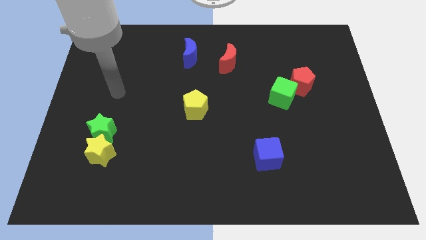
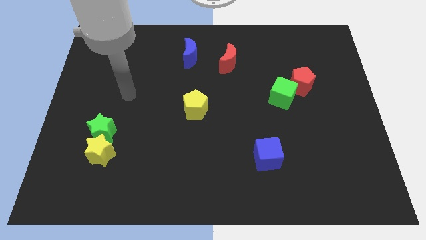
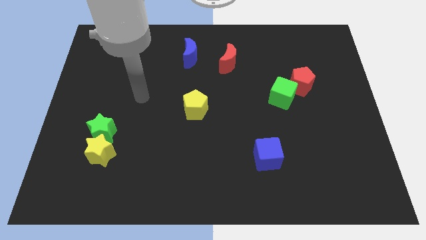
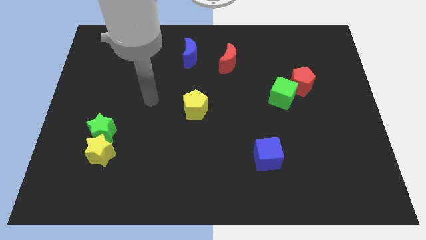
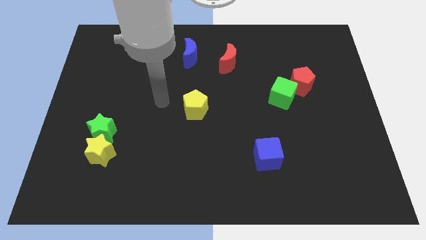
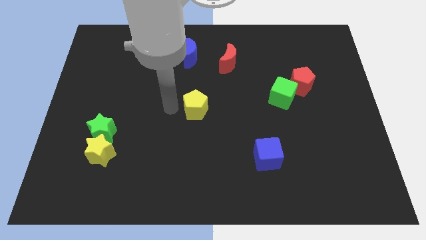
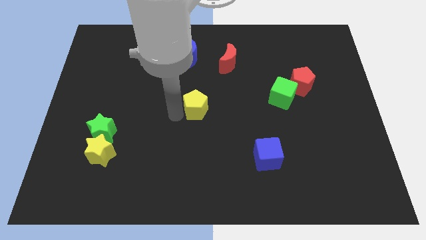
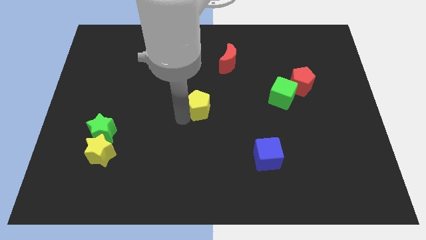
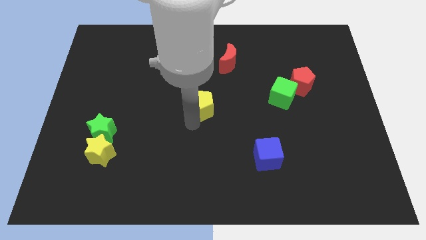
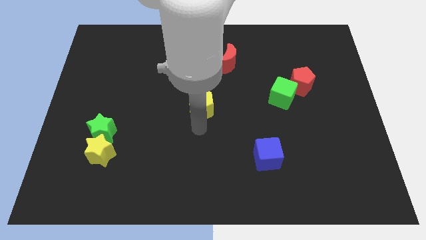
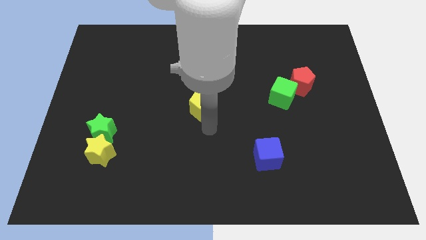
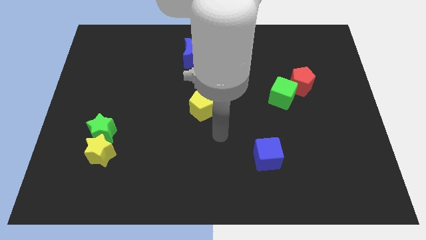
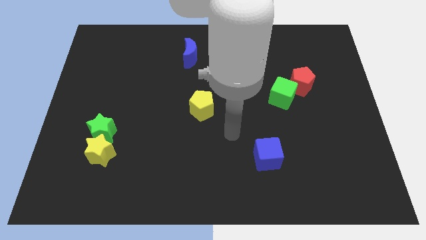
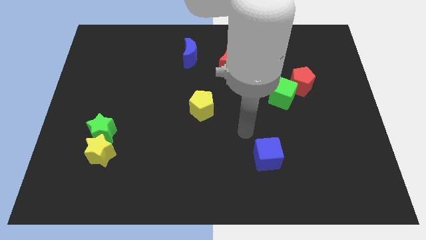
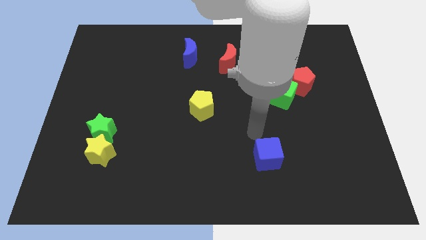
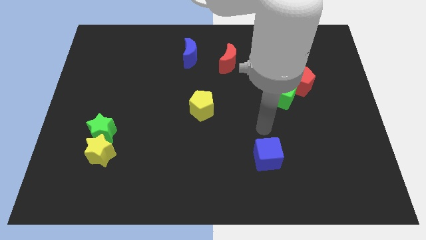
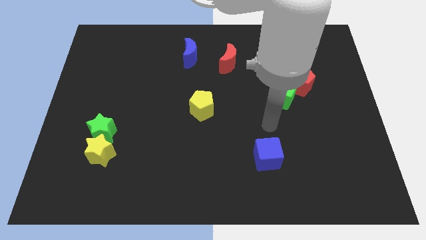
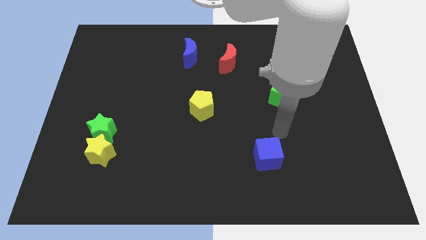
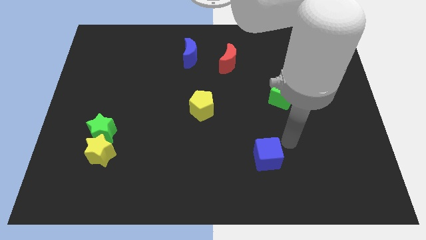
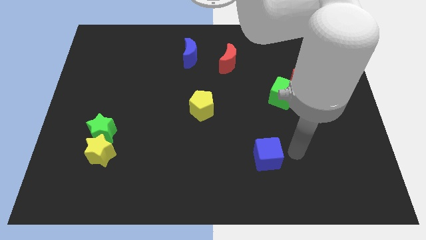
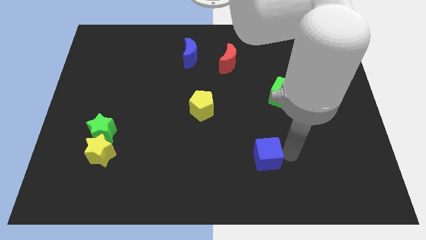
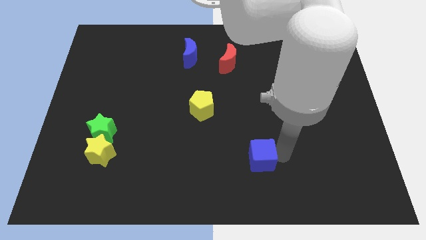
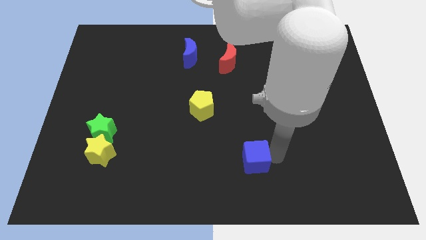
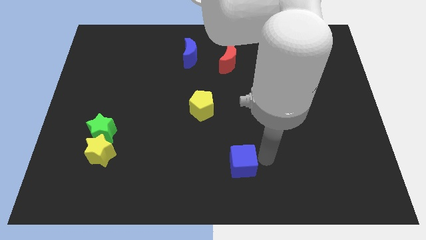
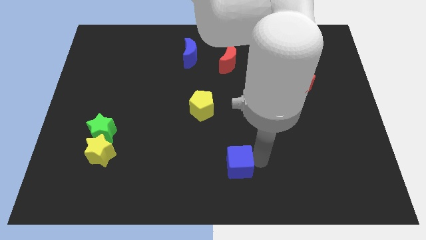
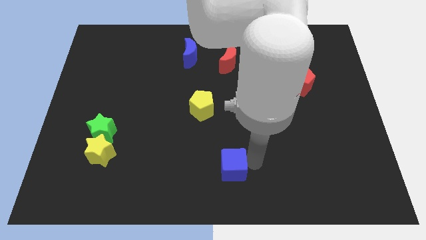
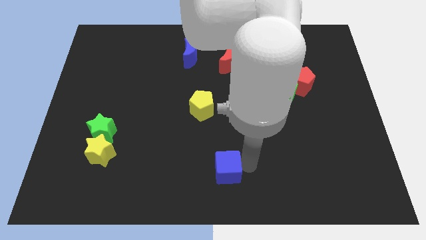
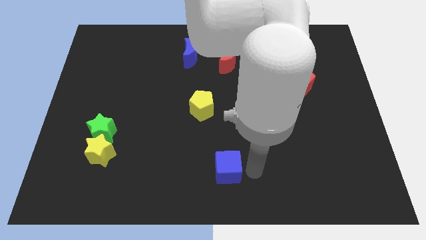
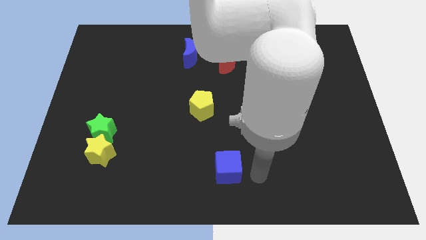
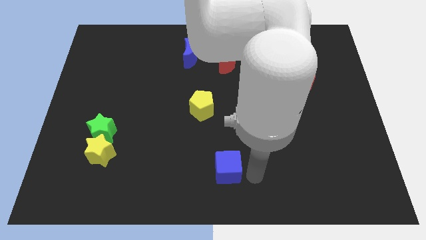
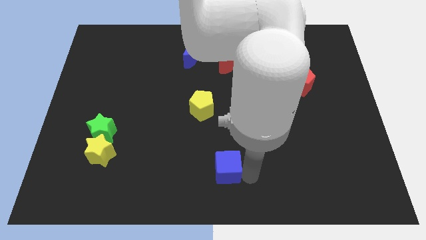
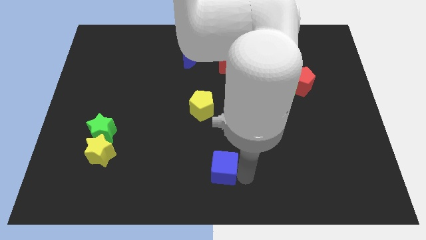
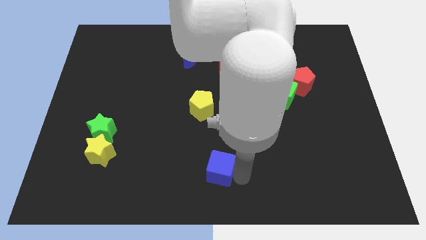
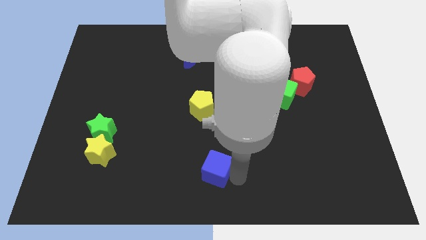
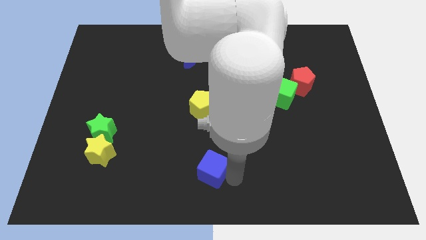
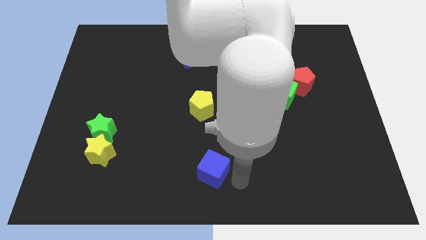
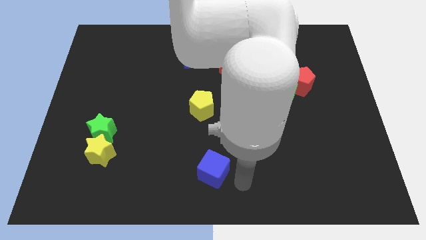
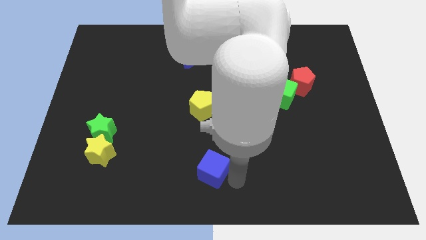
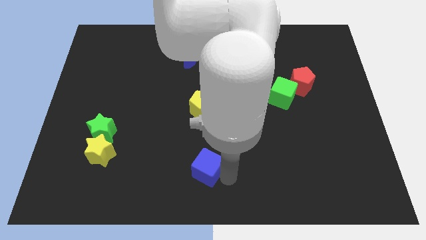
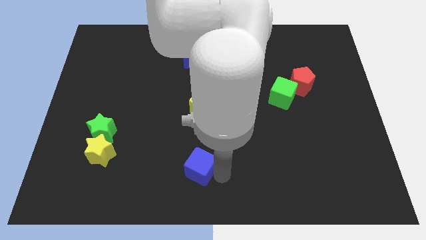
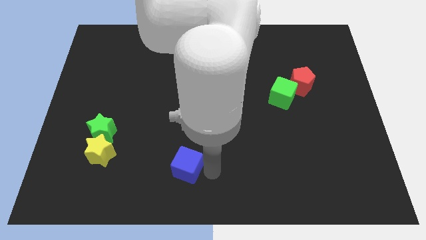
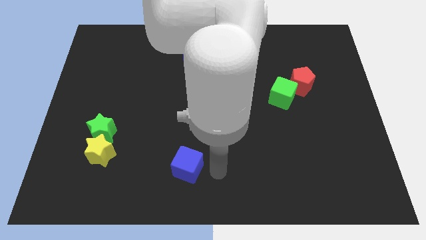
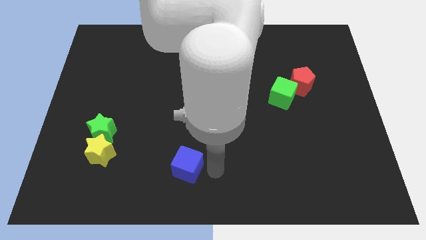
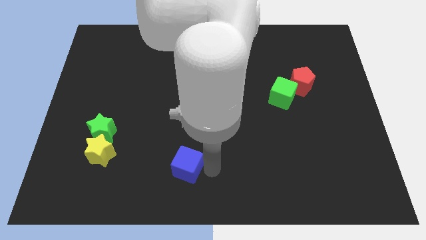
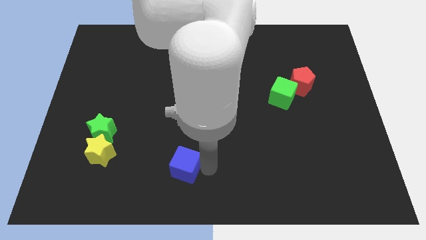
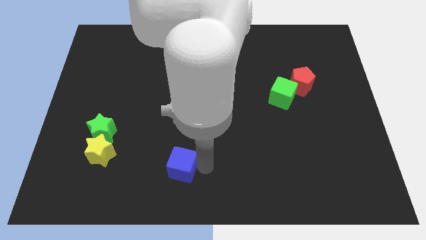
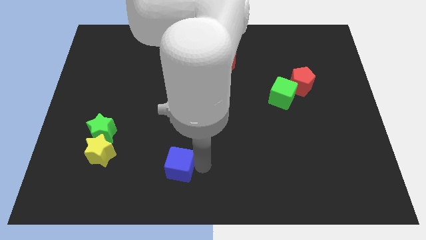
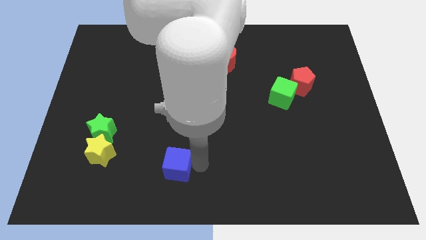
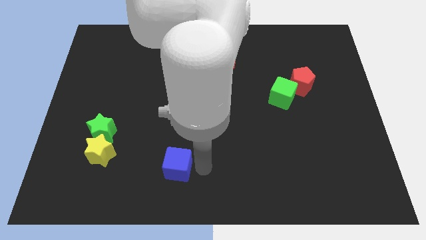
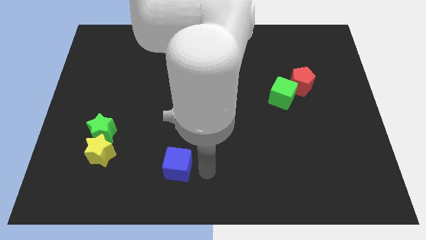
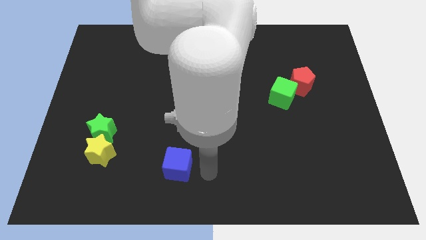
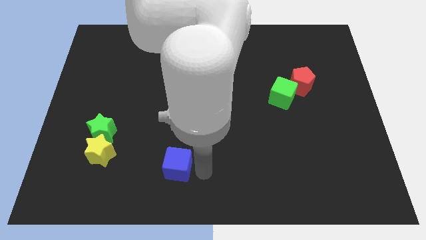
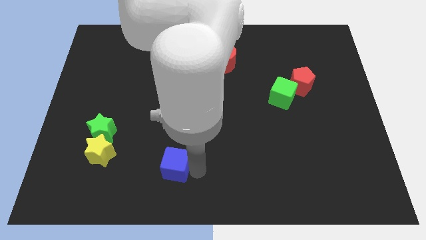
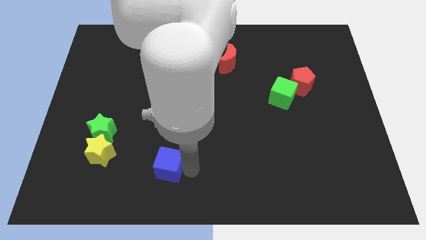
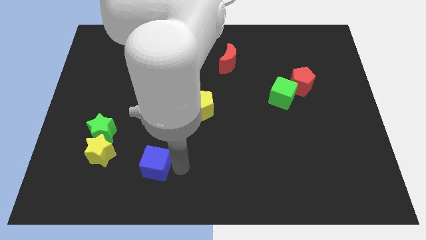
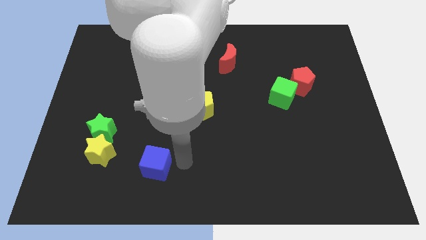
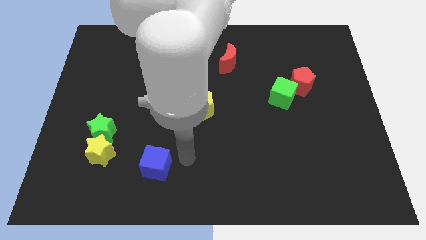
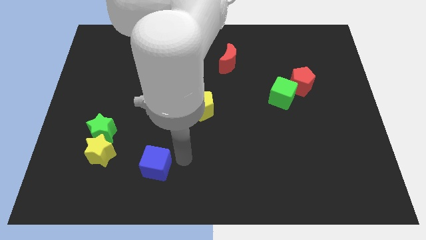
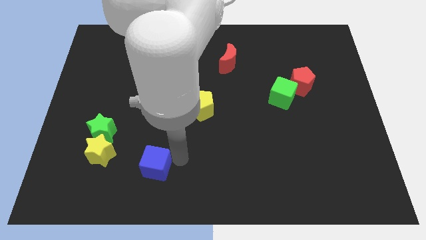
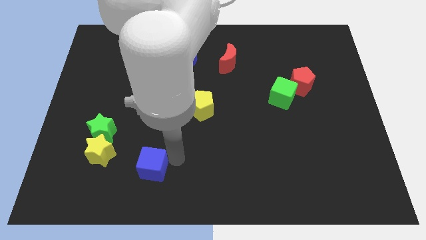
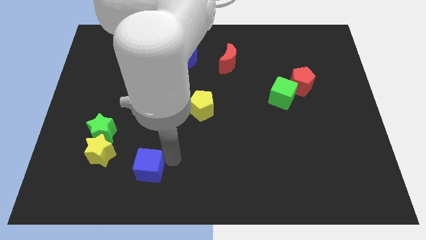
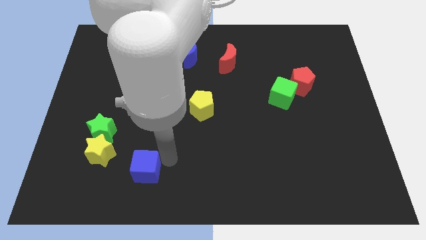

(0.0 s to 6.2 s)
push the blue cube to the bottom right side of the yellow star

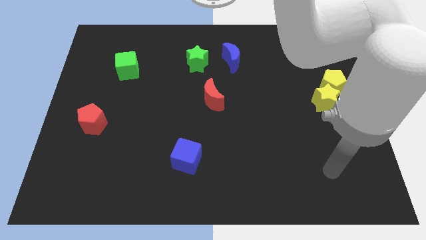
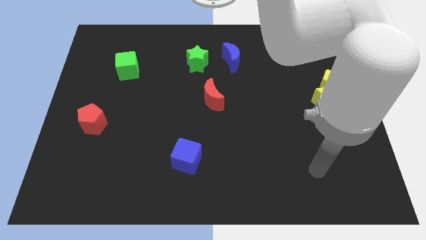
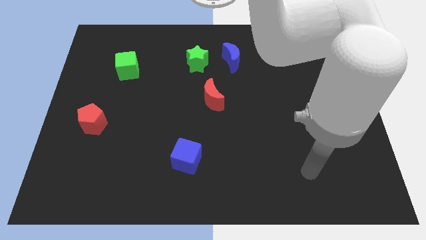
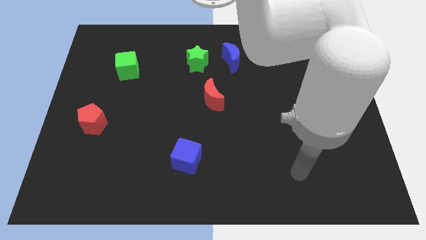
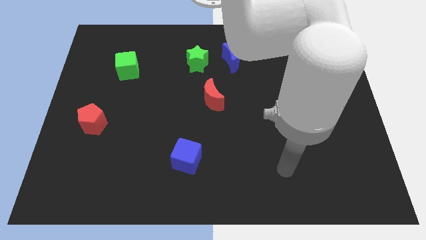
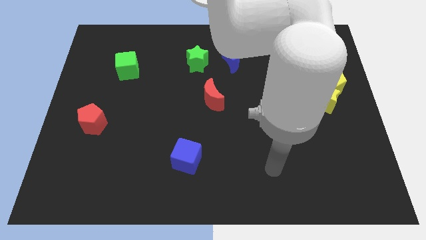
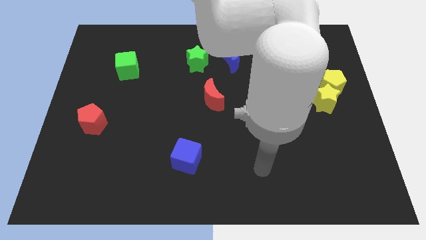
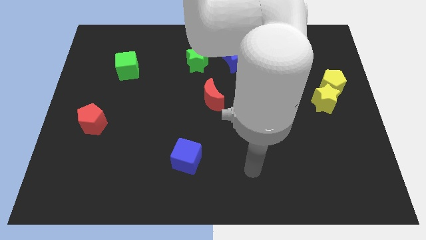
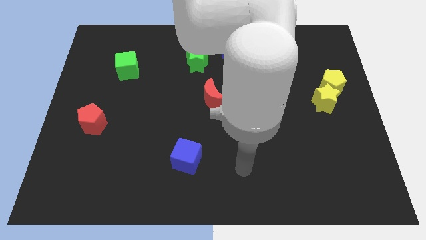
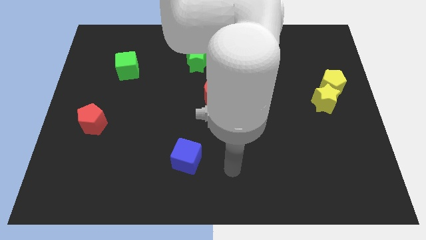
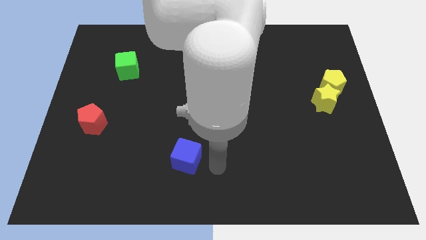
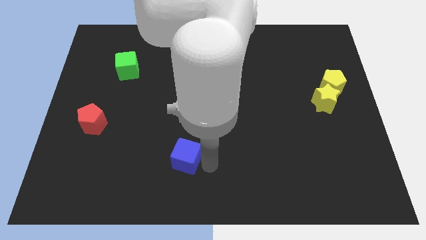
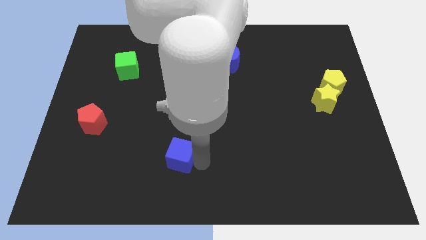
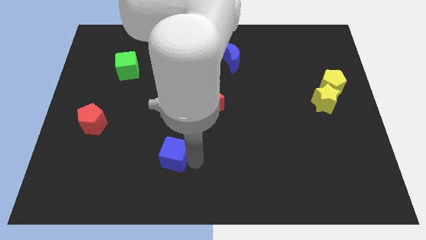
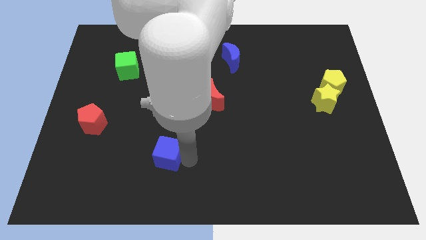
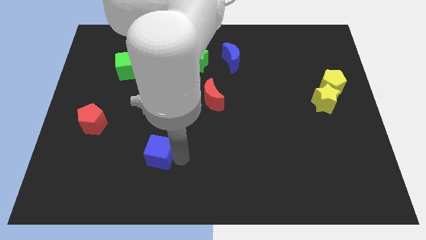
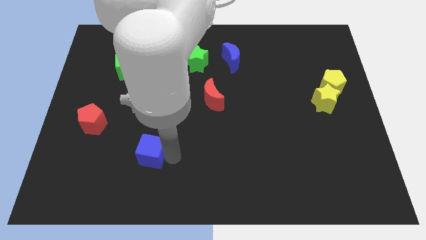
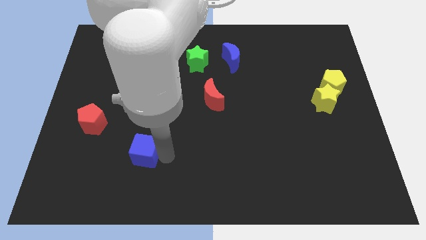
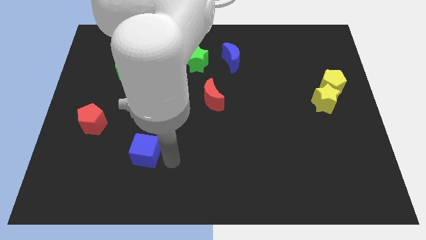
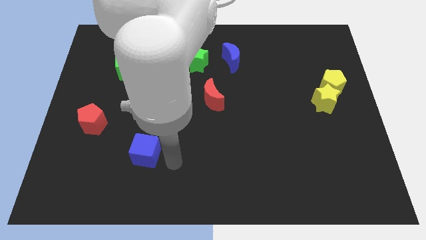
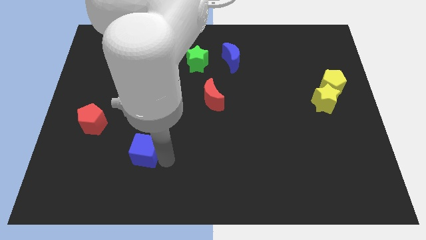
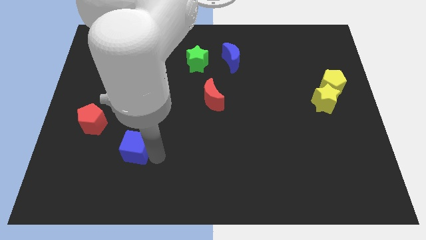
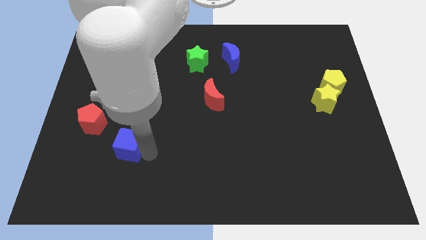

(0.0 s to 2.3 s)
put the blue cube diagonally down and to the right of the red pentagon
